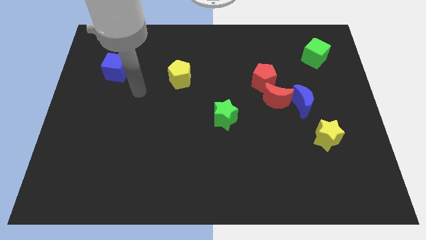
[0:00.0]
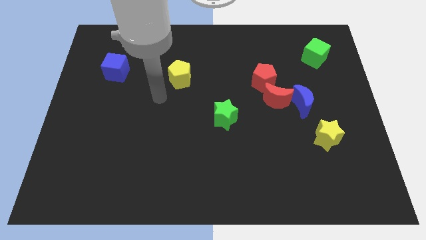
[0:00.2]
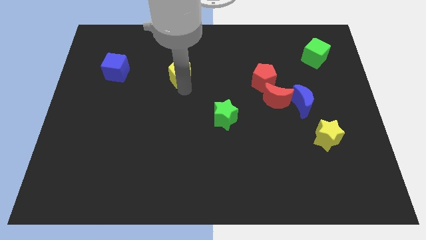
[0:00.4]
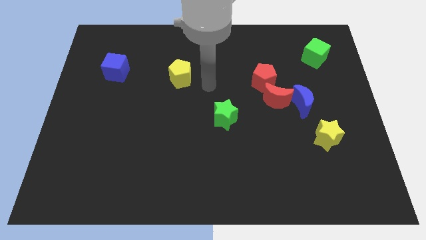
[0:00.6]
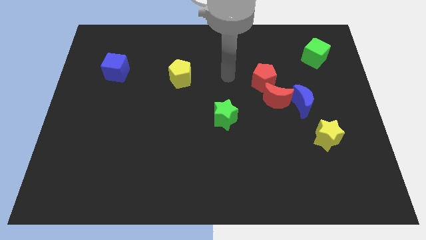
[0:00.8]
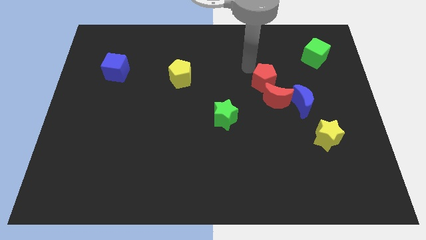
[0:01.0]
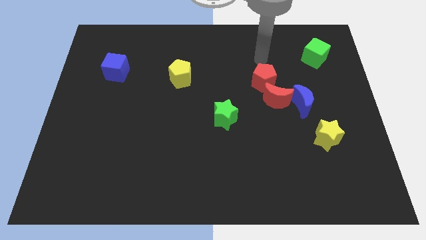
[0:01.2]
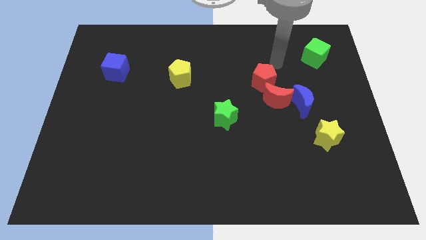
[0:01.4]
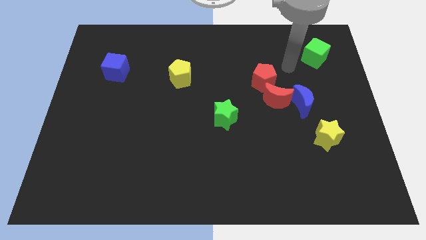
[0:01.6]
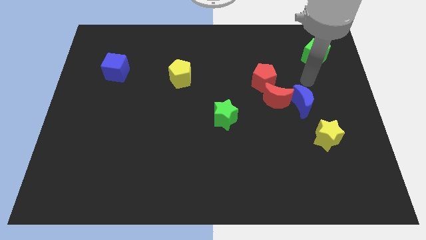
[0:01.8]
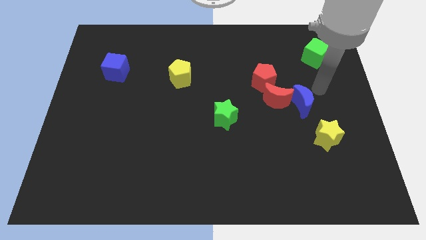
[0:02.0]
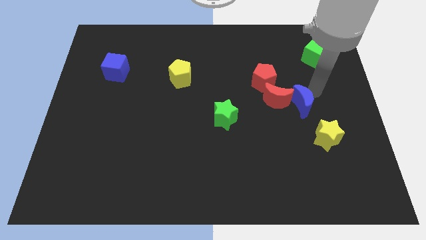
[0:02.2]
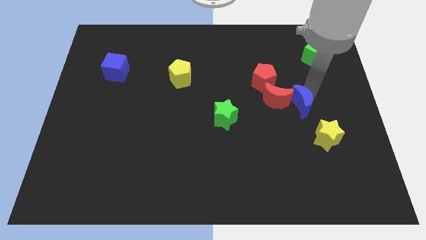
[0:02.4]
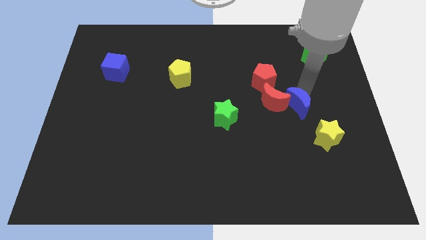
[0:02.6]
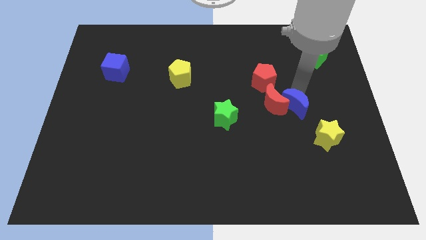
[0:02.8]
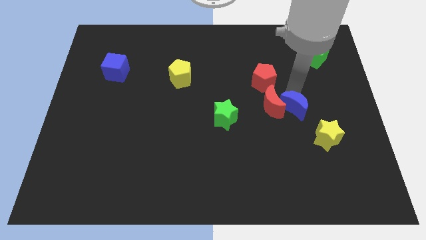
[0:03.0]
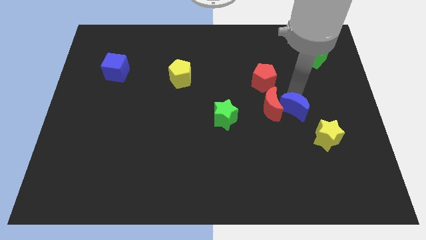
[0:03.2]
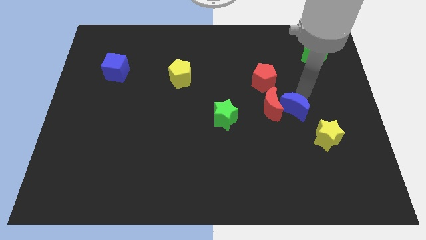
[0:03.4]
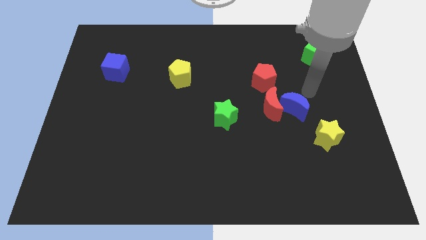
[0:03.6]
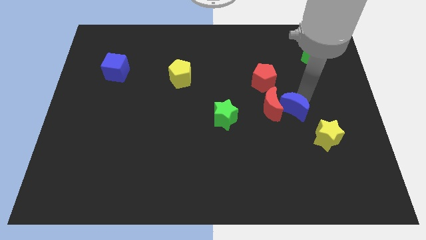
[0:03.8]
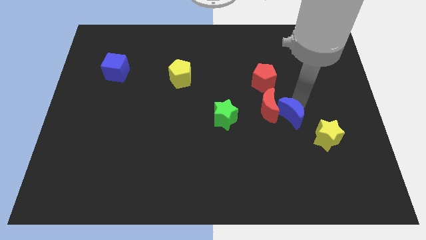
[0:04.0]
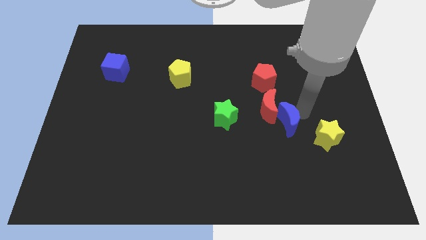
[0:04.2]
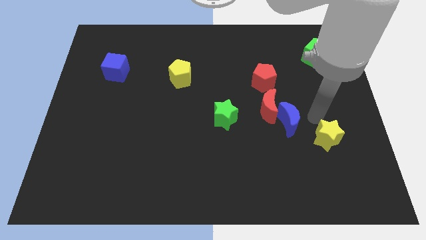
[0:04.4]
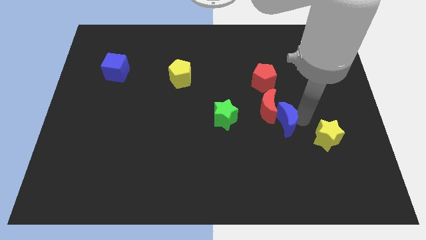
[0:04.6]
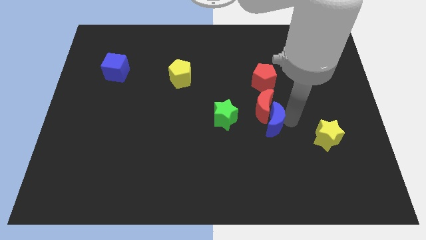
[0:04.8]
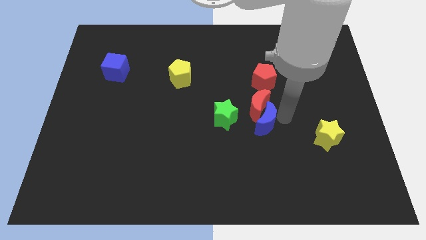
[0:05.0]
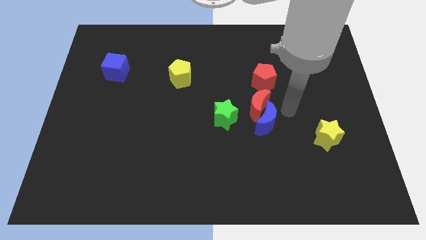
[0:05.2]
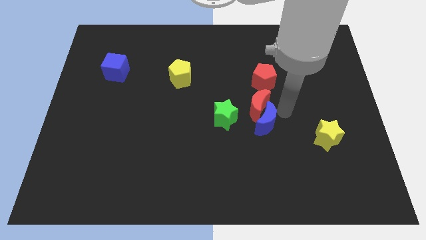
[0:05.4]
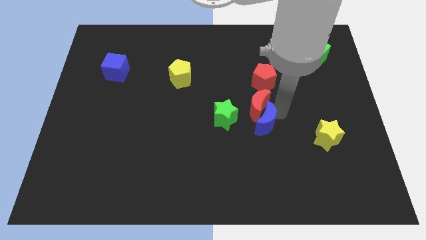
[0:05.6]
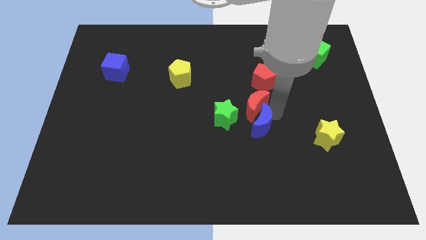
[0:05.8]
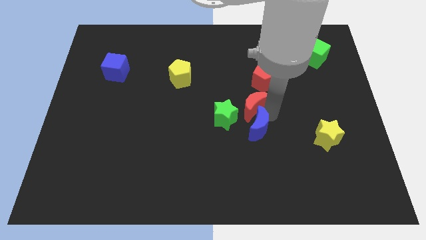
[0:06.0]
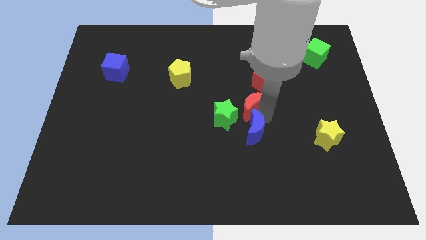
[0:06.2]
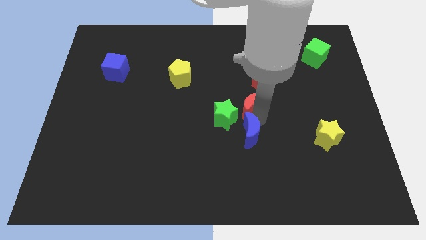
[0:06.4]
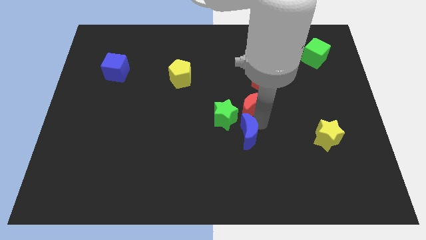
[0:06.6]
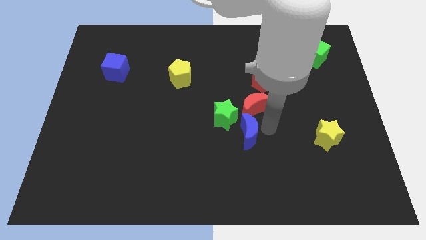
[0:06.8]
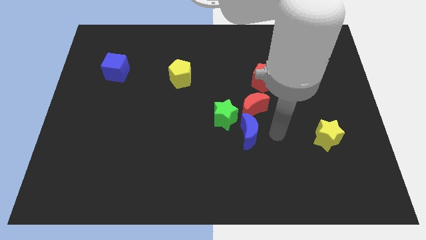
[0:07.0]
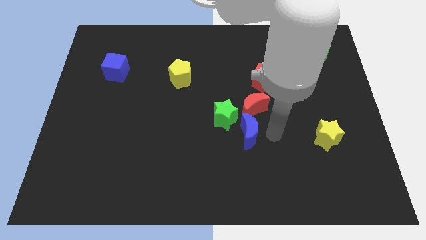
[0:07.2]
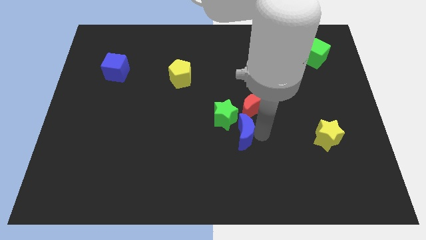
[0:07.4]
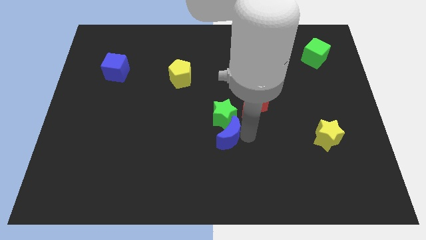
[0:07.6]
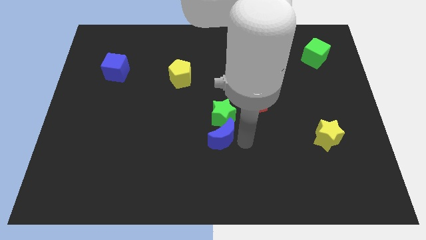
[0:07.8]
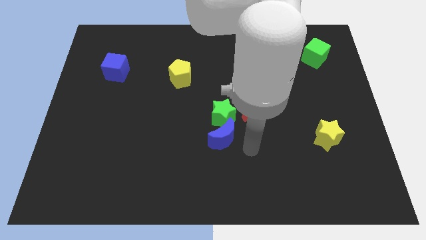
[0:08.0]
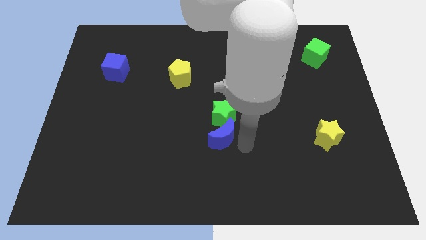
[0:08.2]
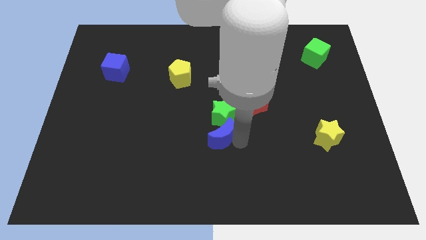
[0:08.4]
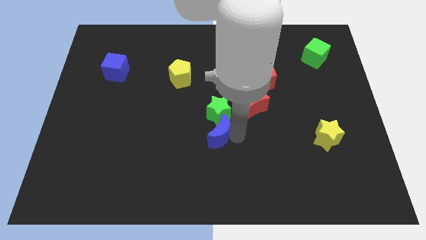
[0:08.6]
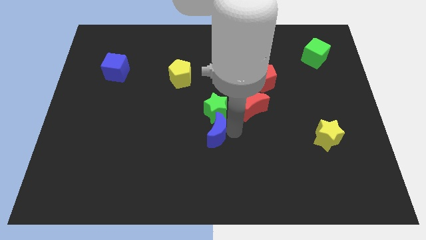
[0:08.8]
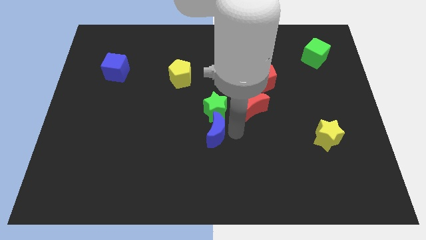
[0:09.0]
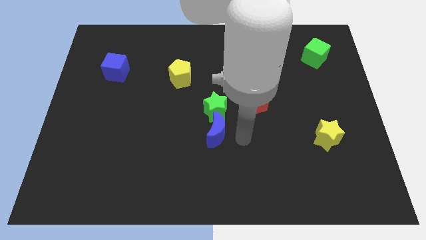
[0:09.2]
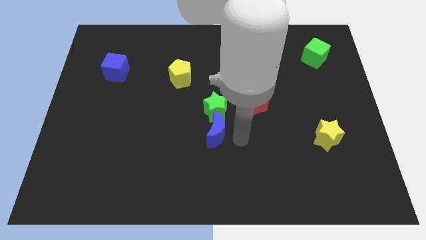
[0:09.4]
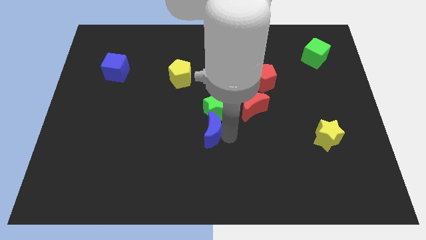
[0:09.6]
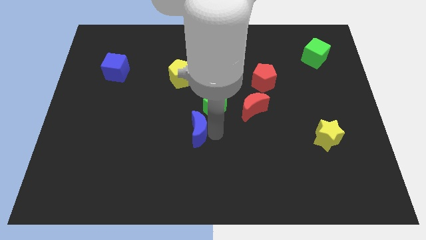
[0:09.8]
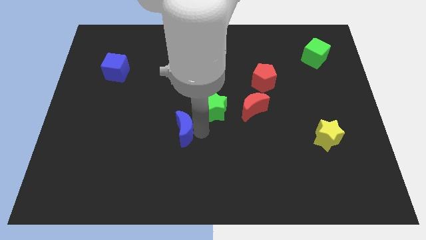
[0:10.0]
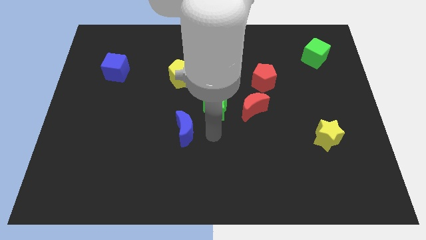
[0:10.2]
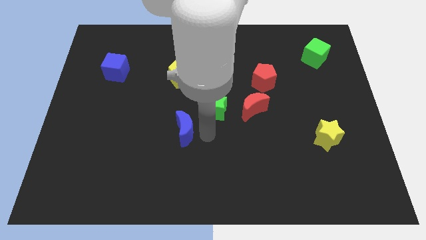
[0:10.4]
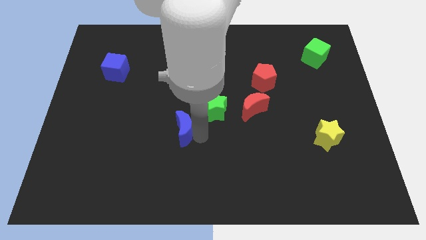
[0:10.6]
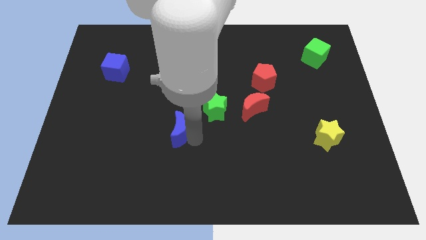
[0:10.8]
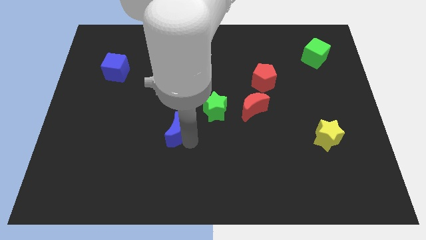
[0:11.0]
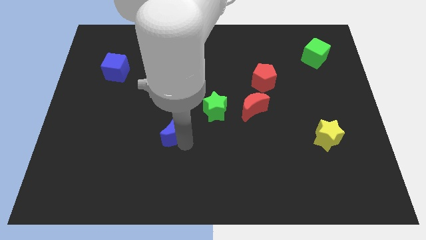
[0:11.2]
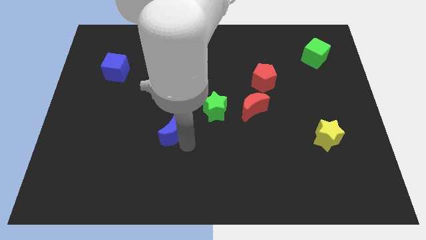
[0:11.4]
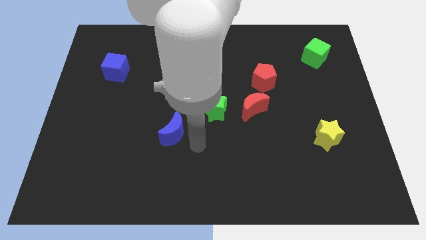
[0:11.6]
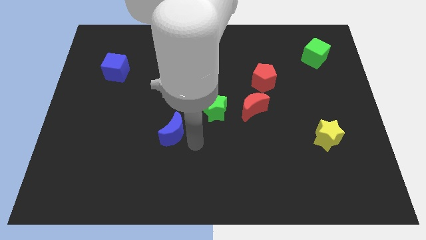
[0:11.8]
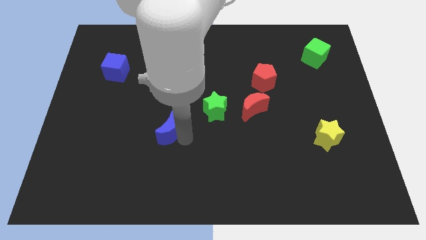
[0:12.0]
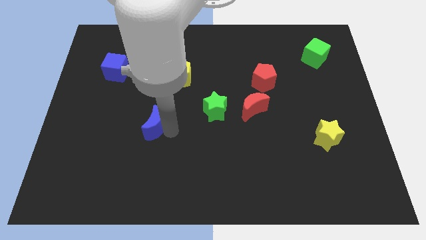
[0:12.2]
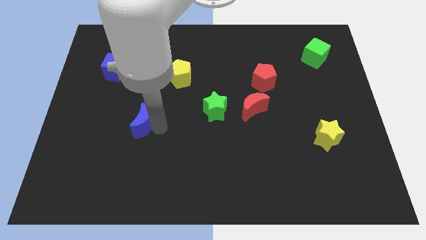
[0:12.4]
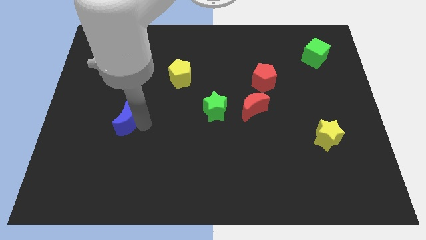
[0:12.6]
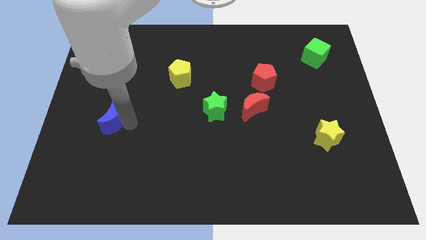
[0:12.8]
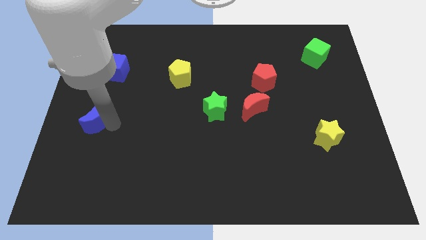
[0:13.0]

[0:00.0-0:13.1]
put the blue moon to the left side of the board

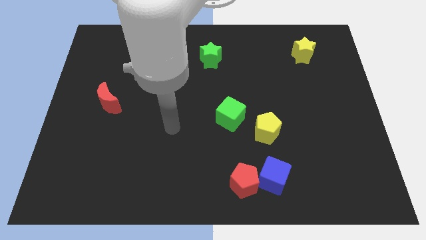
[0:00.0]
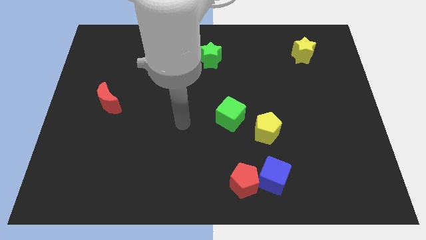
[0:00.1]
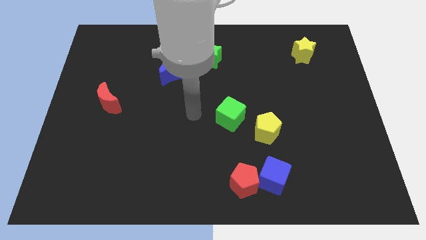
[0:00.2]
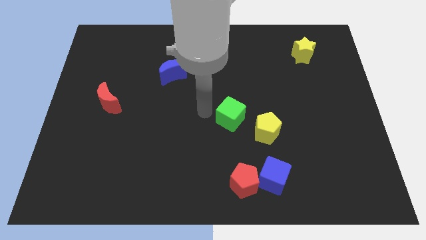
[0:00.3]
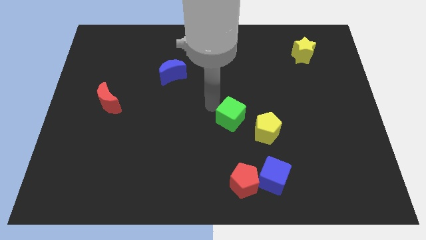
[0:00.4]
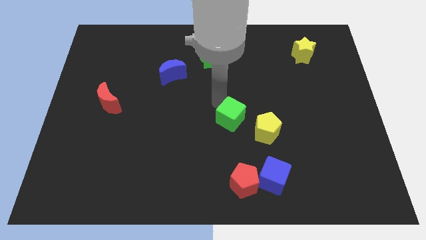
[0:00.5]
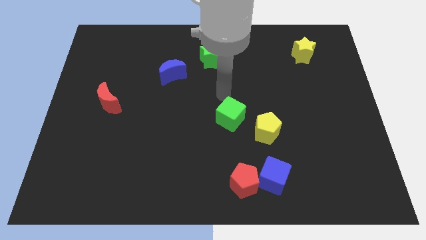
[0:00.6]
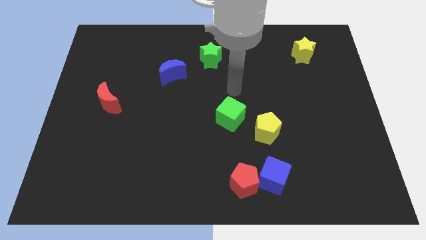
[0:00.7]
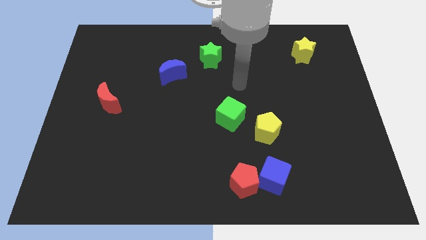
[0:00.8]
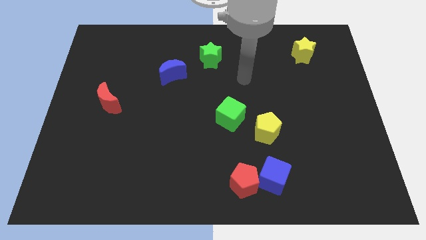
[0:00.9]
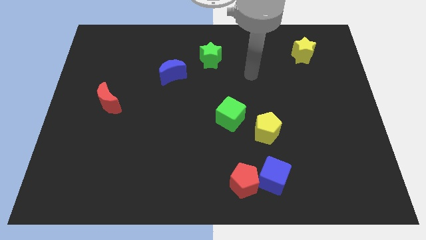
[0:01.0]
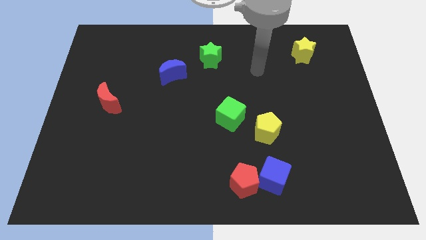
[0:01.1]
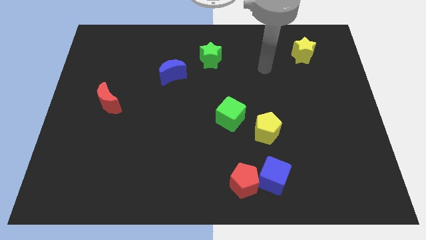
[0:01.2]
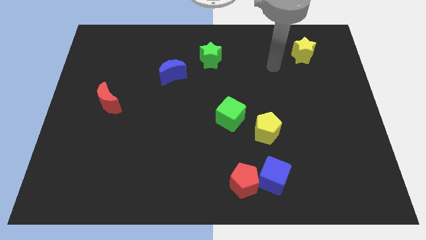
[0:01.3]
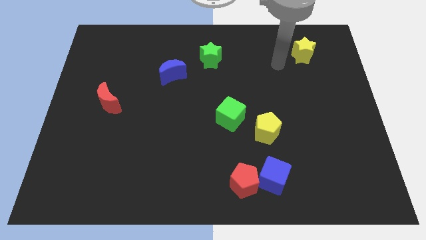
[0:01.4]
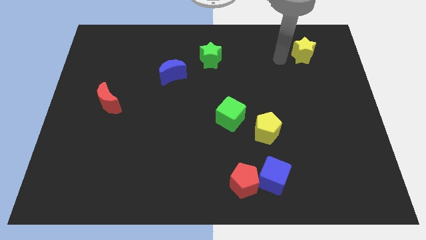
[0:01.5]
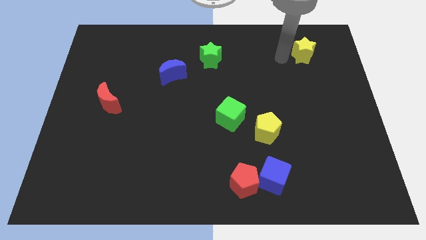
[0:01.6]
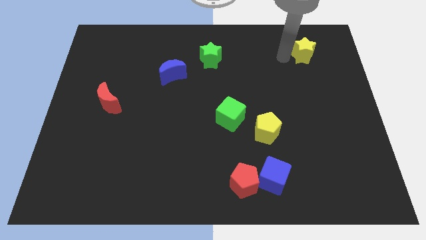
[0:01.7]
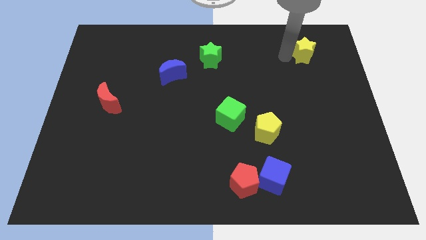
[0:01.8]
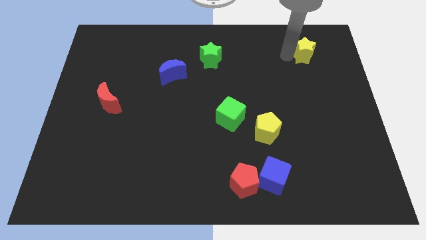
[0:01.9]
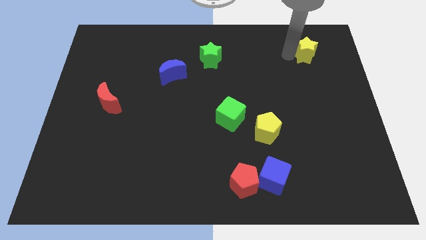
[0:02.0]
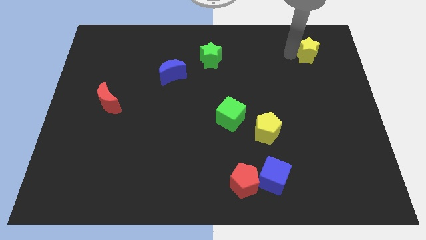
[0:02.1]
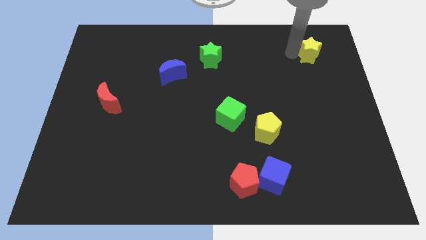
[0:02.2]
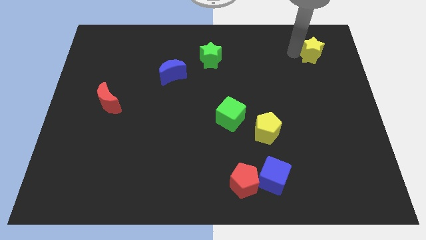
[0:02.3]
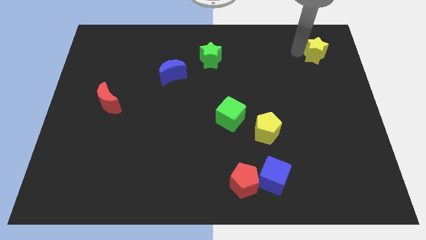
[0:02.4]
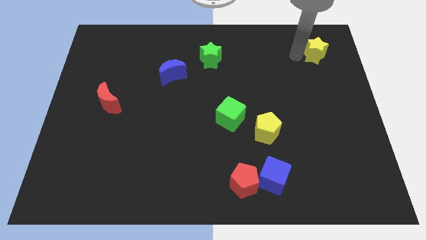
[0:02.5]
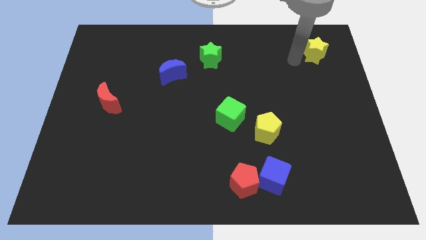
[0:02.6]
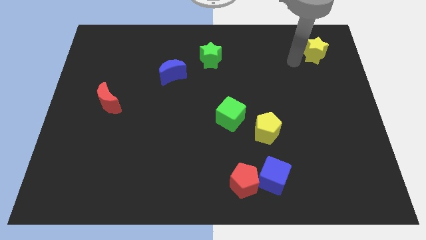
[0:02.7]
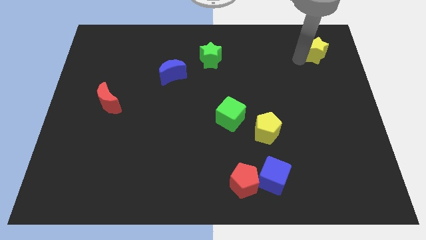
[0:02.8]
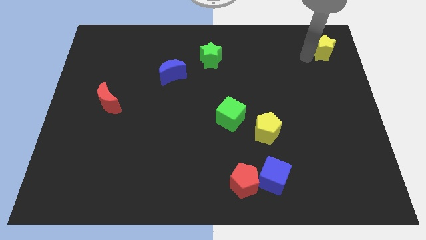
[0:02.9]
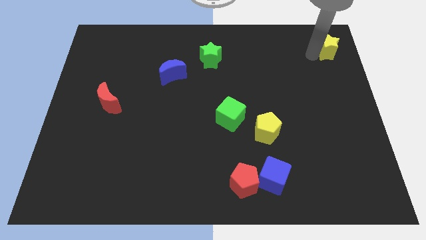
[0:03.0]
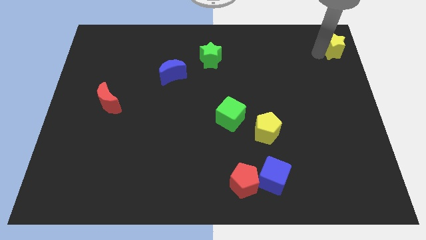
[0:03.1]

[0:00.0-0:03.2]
push the yellow star to the upper right corner
